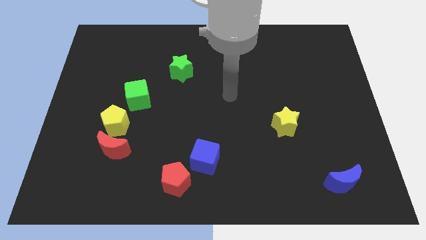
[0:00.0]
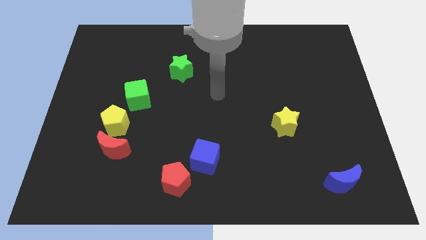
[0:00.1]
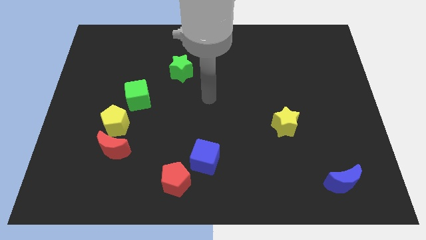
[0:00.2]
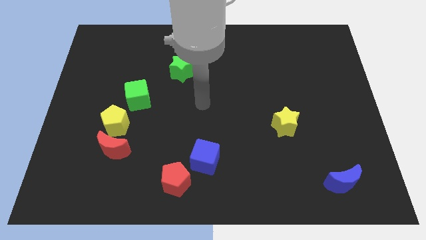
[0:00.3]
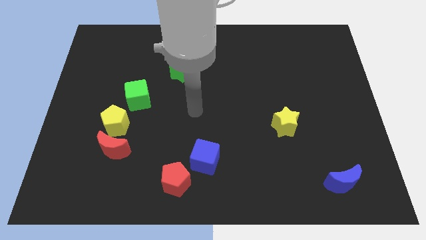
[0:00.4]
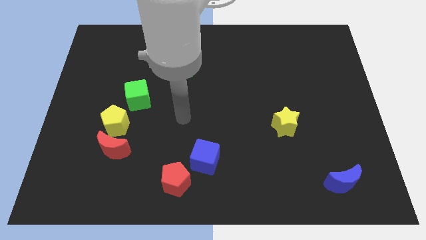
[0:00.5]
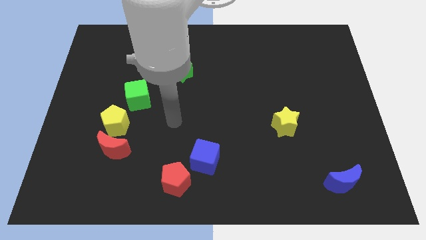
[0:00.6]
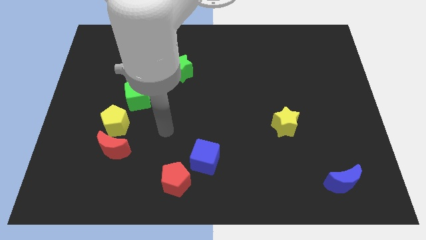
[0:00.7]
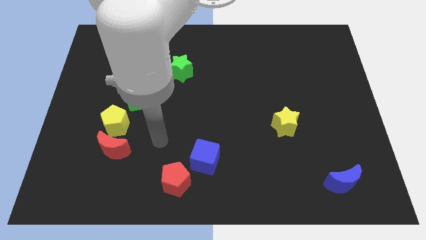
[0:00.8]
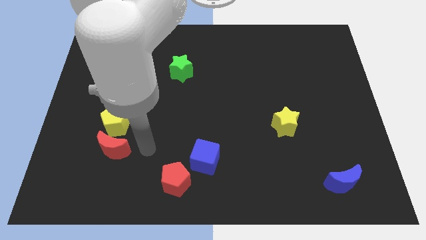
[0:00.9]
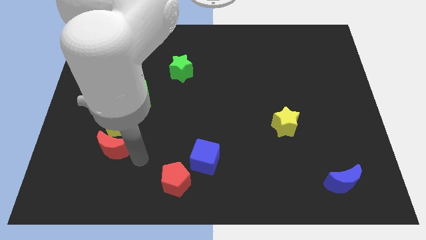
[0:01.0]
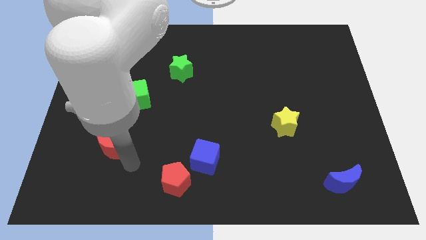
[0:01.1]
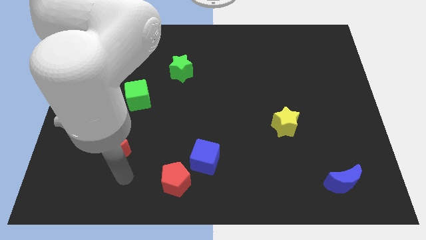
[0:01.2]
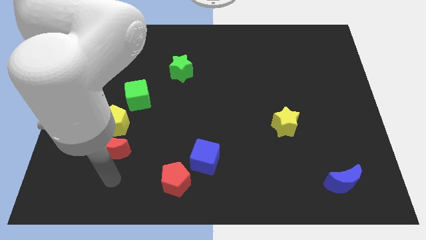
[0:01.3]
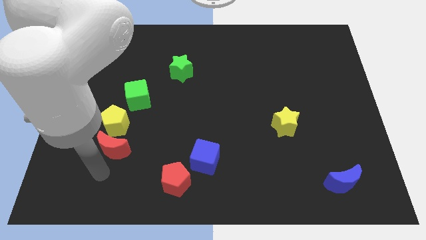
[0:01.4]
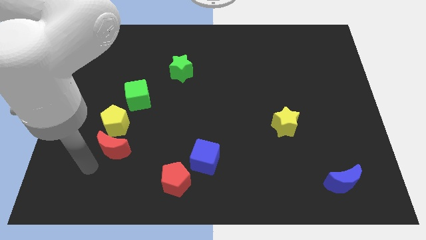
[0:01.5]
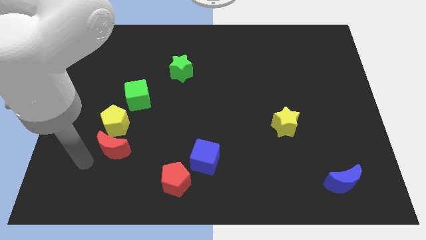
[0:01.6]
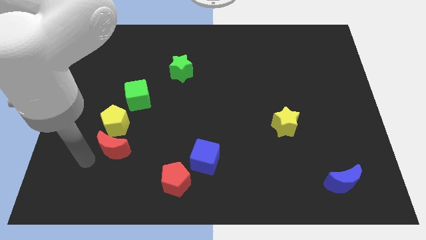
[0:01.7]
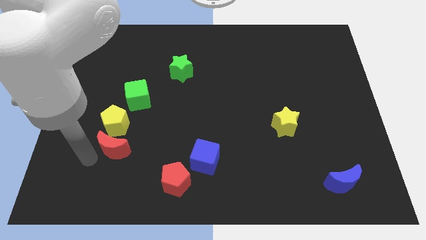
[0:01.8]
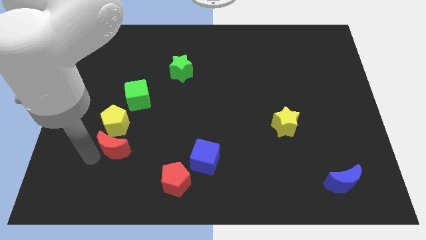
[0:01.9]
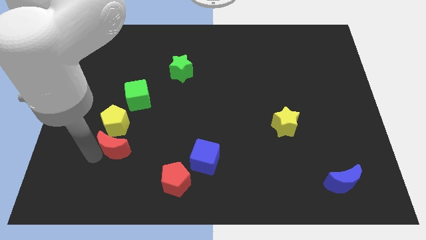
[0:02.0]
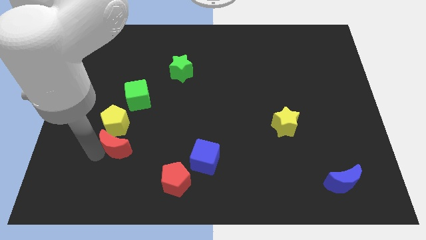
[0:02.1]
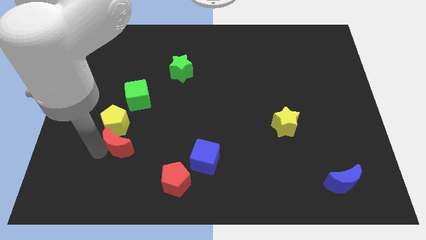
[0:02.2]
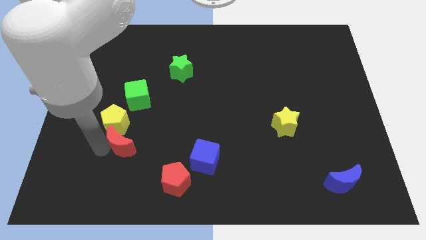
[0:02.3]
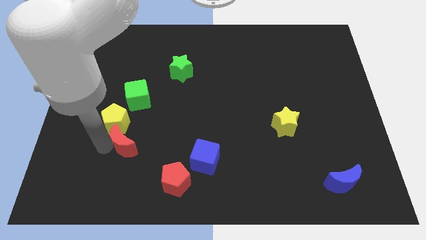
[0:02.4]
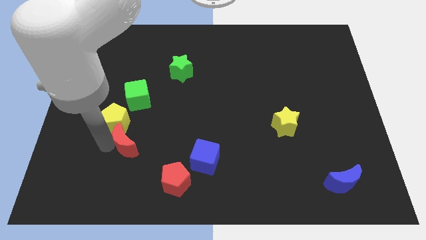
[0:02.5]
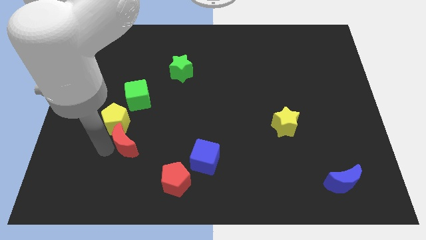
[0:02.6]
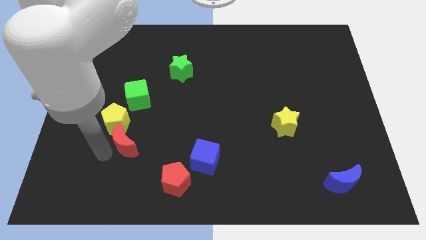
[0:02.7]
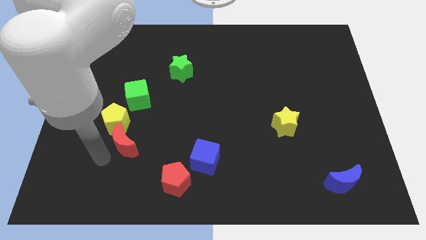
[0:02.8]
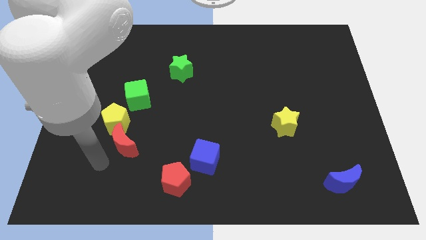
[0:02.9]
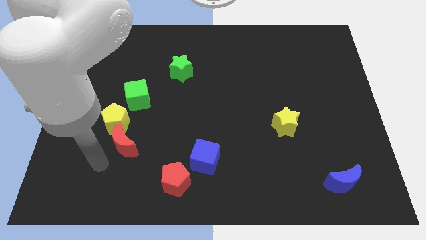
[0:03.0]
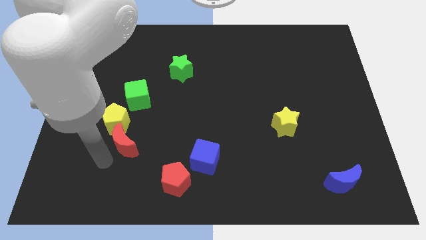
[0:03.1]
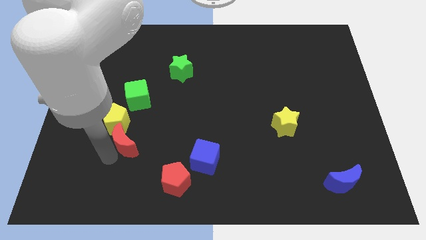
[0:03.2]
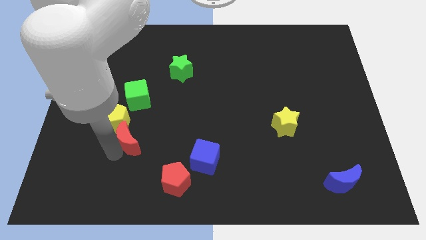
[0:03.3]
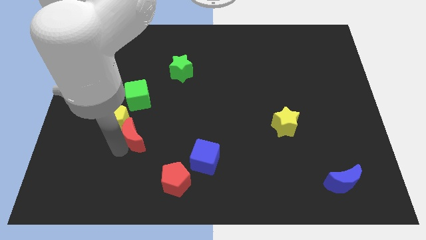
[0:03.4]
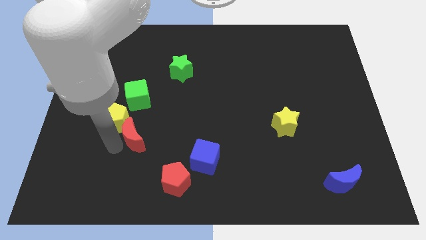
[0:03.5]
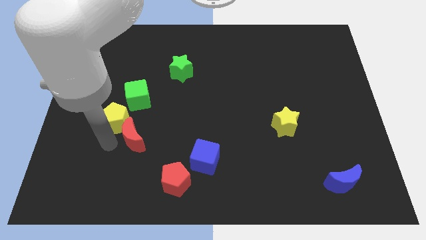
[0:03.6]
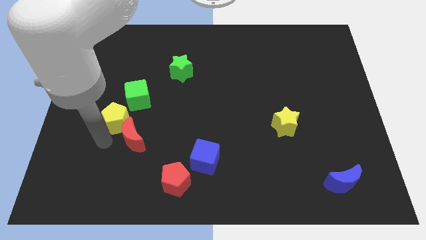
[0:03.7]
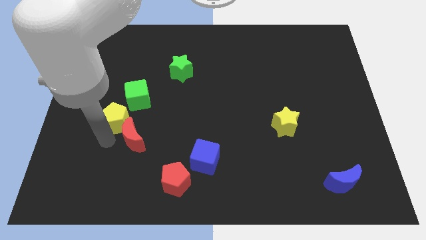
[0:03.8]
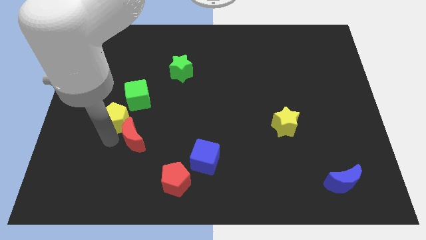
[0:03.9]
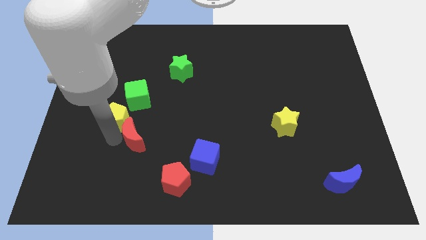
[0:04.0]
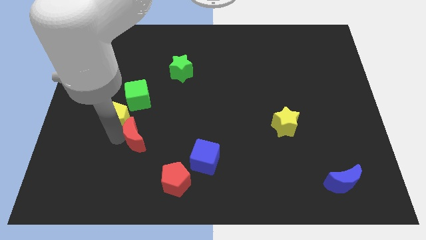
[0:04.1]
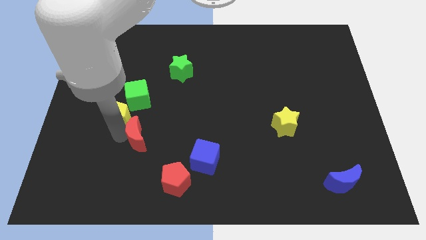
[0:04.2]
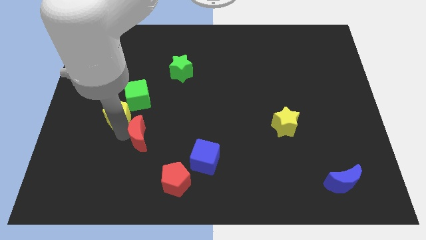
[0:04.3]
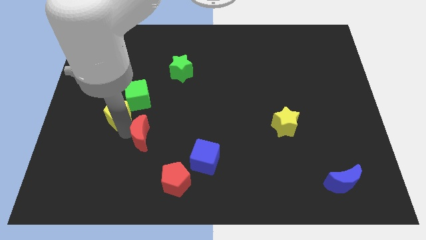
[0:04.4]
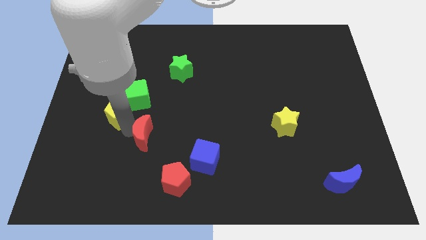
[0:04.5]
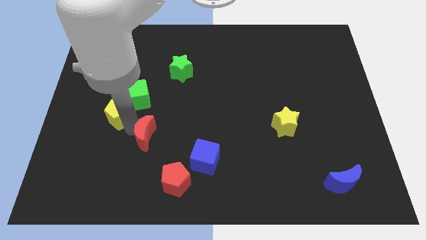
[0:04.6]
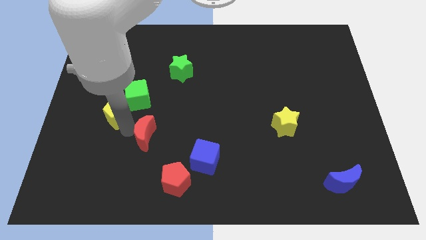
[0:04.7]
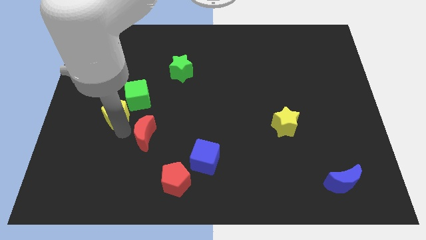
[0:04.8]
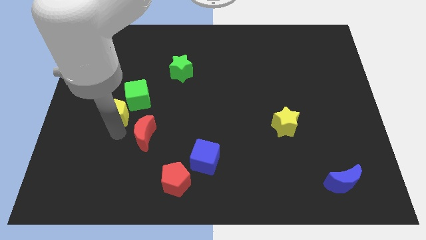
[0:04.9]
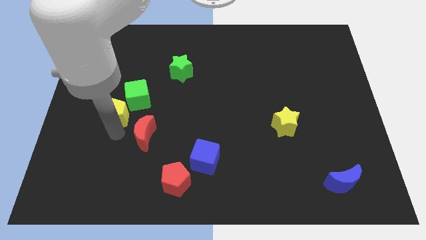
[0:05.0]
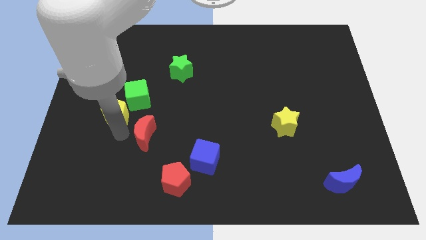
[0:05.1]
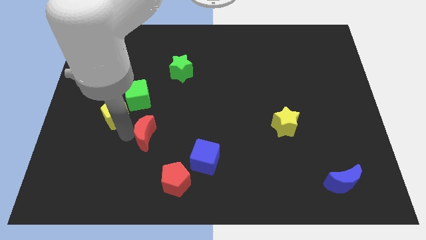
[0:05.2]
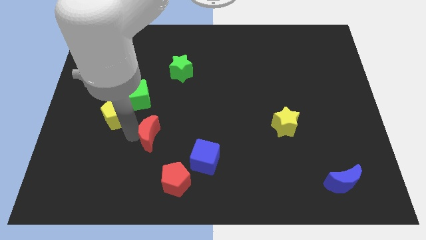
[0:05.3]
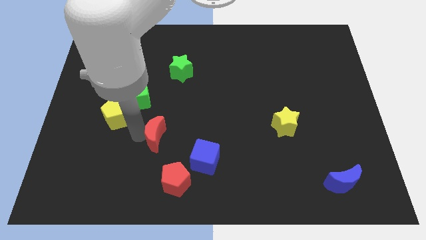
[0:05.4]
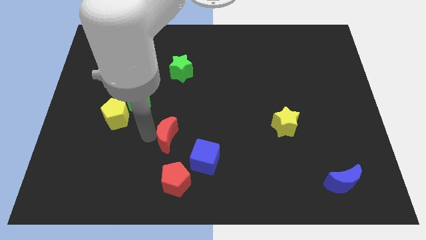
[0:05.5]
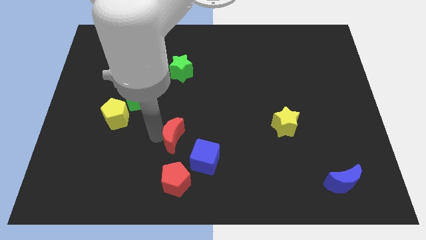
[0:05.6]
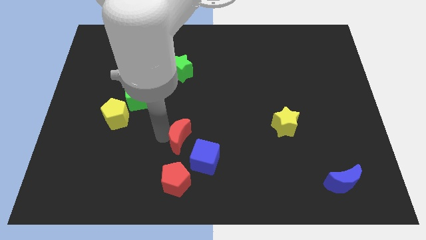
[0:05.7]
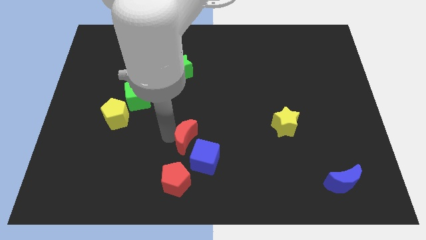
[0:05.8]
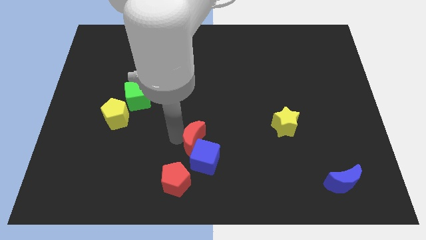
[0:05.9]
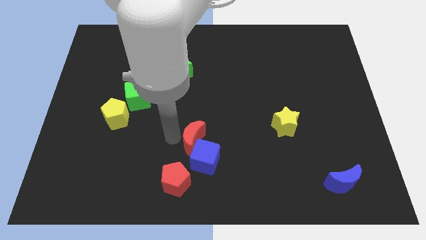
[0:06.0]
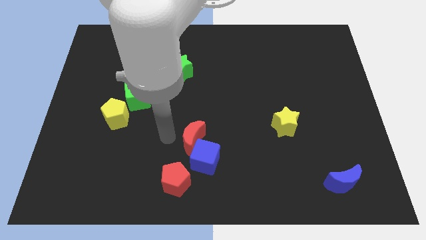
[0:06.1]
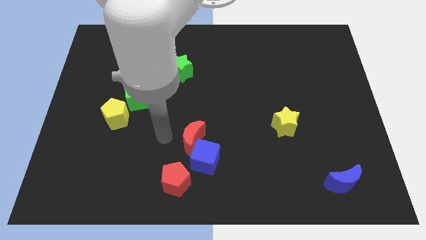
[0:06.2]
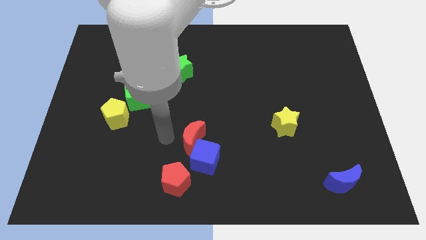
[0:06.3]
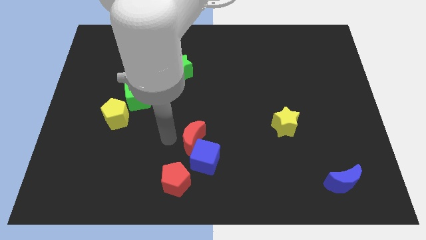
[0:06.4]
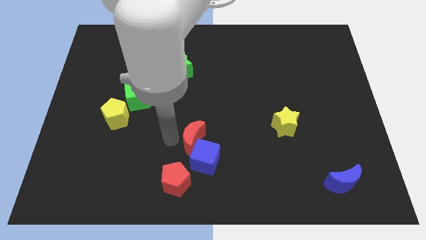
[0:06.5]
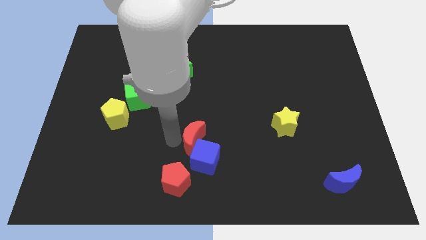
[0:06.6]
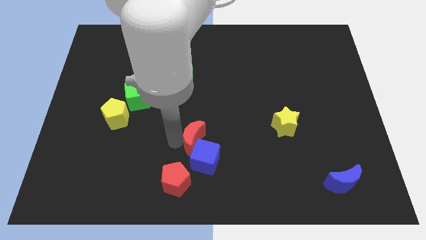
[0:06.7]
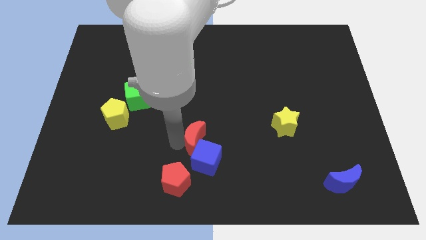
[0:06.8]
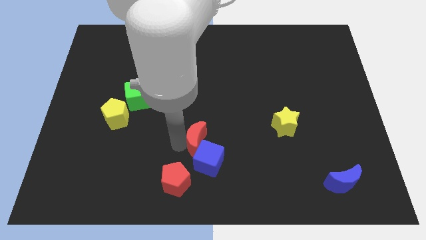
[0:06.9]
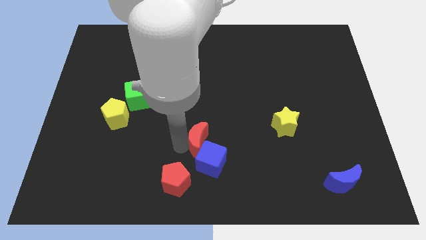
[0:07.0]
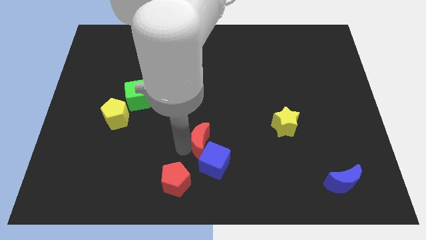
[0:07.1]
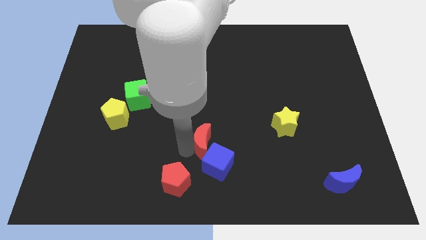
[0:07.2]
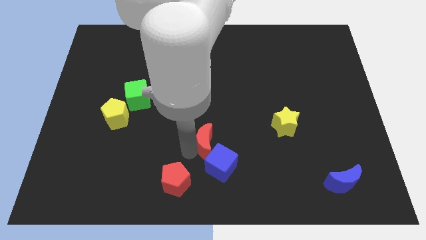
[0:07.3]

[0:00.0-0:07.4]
move the red moon to the right

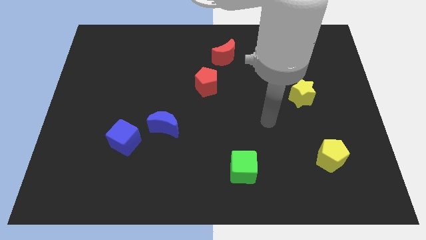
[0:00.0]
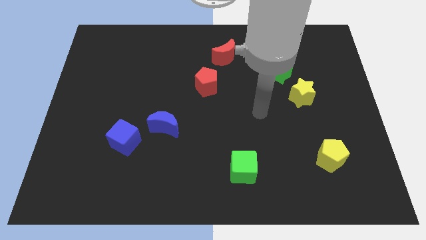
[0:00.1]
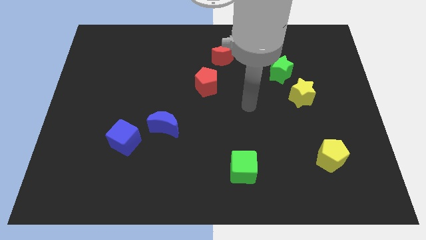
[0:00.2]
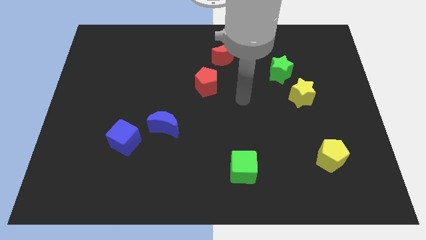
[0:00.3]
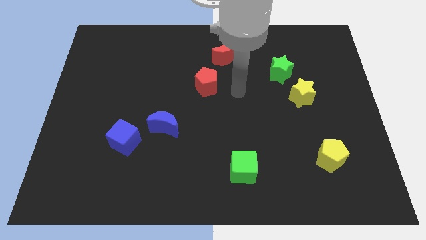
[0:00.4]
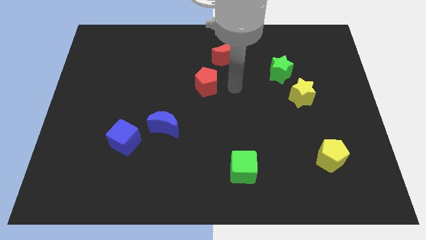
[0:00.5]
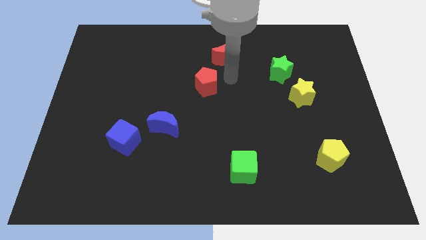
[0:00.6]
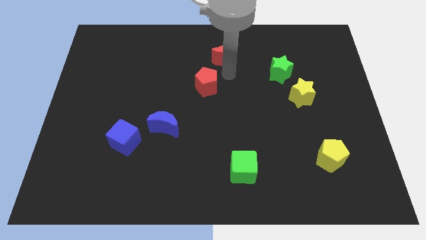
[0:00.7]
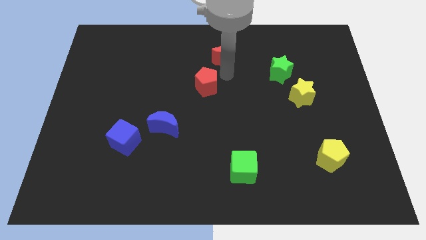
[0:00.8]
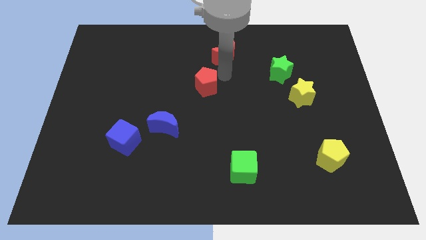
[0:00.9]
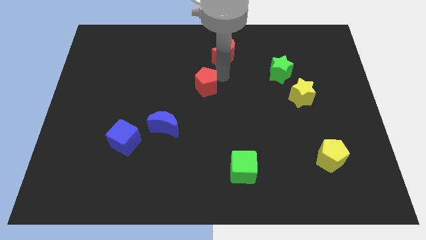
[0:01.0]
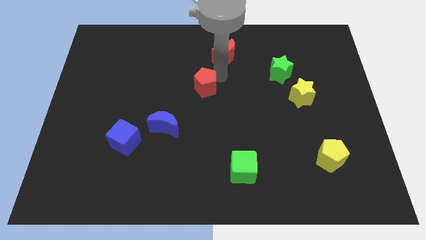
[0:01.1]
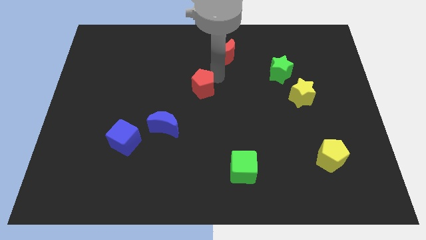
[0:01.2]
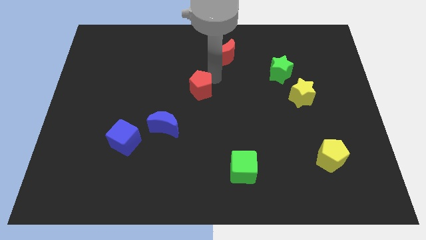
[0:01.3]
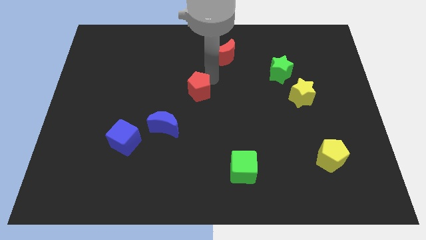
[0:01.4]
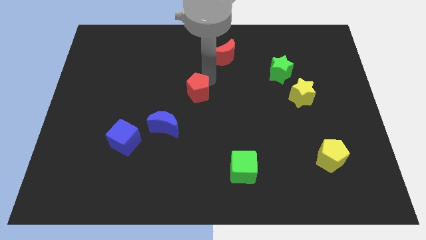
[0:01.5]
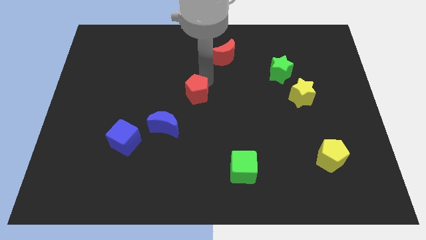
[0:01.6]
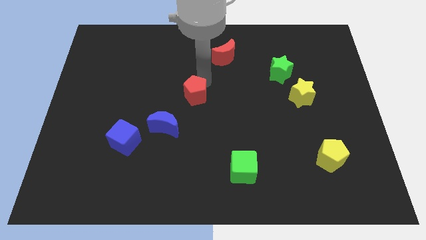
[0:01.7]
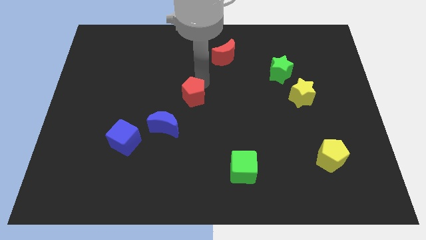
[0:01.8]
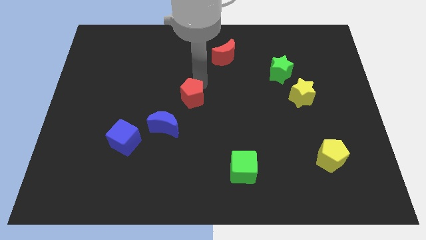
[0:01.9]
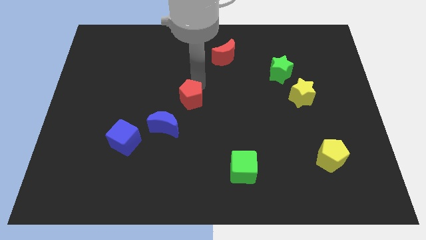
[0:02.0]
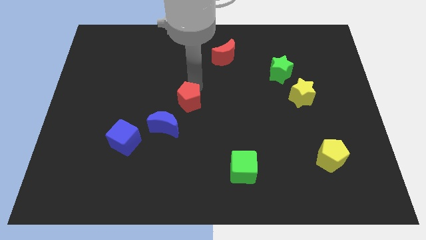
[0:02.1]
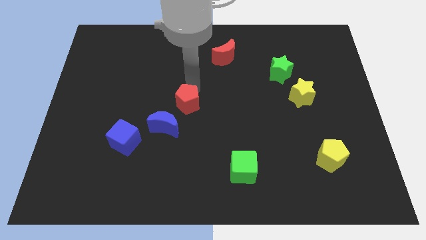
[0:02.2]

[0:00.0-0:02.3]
slide the red pentagon down and then left slightly
